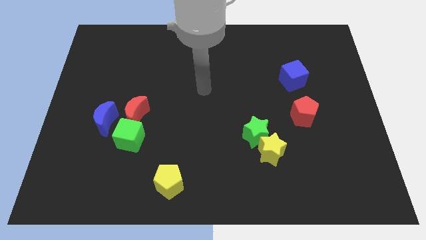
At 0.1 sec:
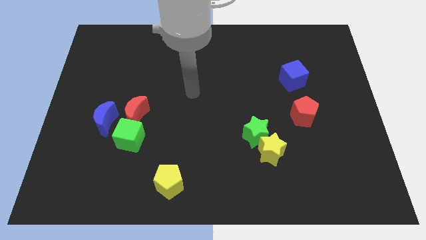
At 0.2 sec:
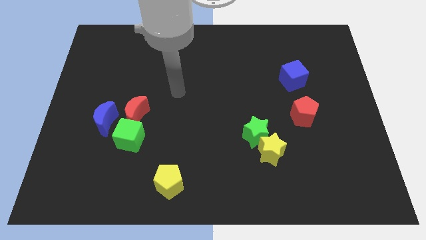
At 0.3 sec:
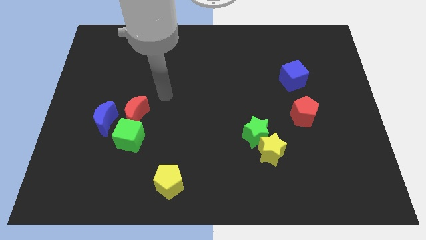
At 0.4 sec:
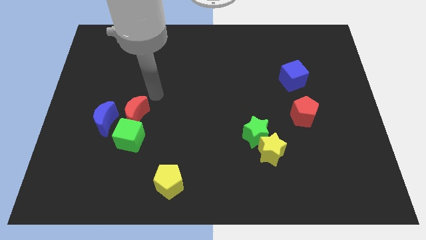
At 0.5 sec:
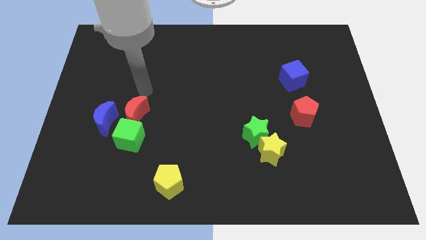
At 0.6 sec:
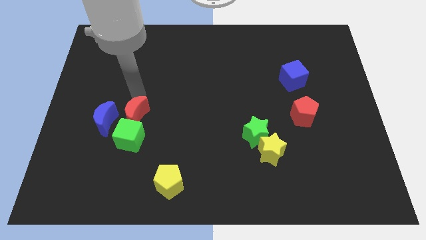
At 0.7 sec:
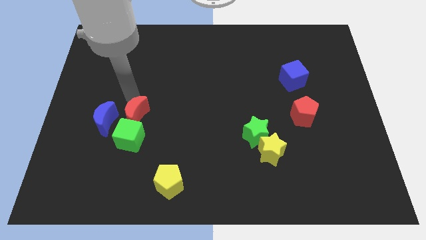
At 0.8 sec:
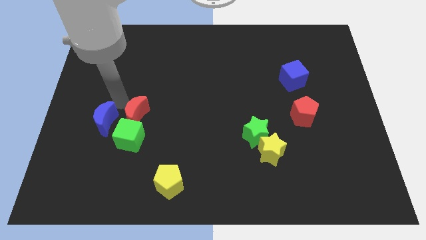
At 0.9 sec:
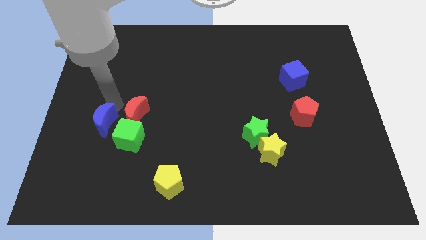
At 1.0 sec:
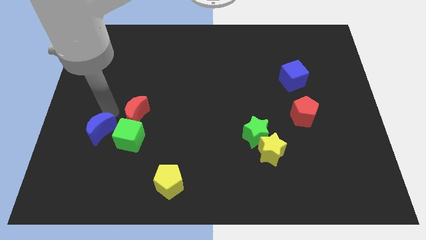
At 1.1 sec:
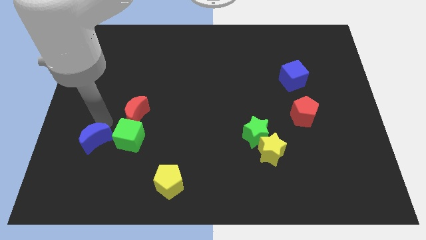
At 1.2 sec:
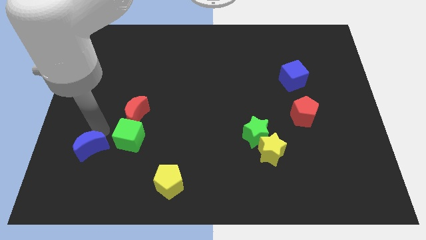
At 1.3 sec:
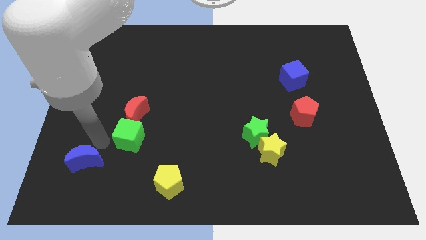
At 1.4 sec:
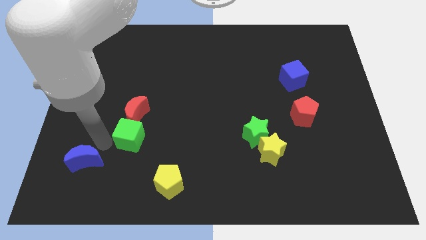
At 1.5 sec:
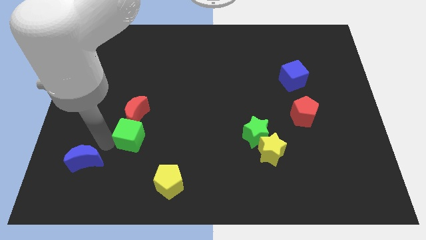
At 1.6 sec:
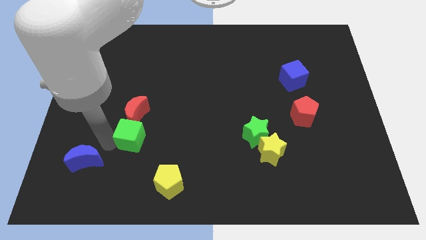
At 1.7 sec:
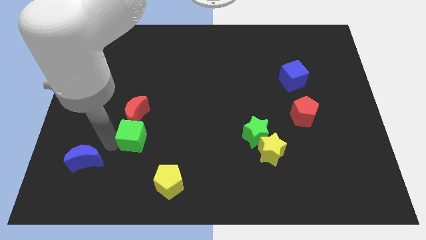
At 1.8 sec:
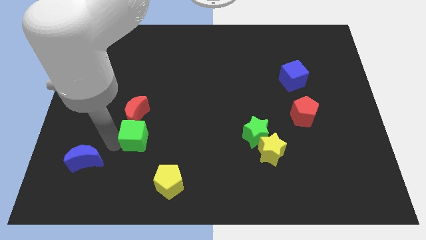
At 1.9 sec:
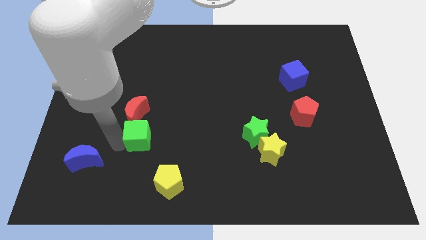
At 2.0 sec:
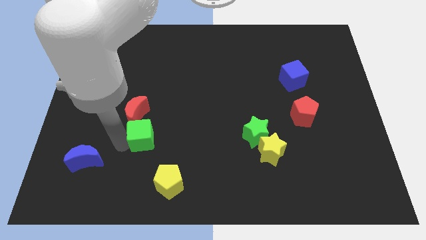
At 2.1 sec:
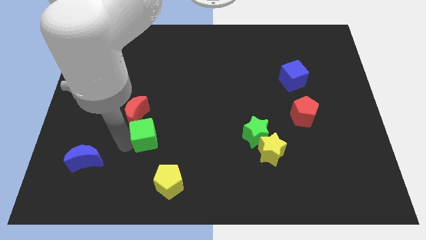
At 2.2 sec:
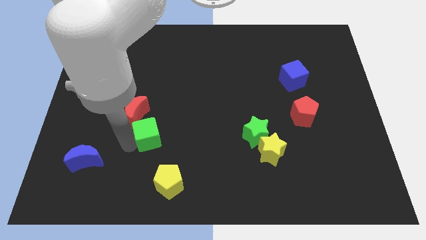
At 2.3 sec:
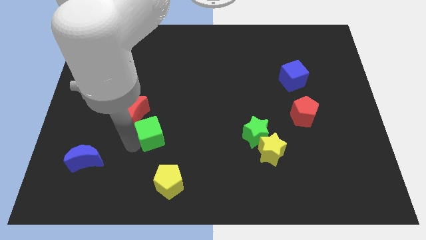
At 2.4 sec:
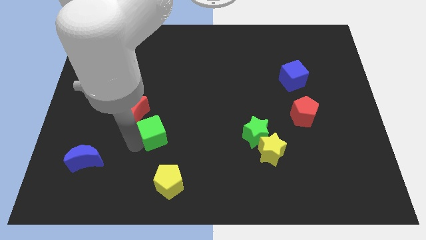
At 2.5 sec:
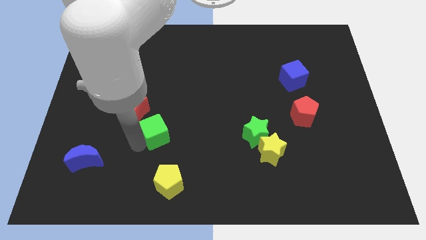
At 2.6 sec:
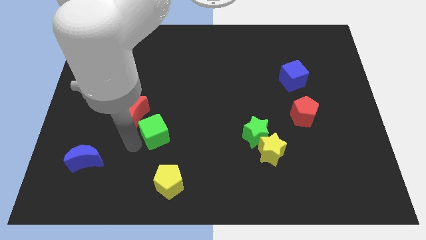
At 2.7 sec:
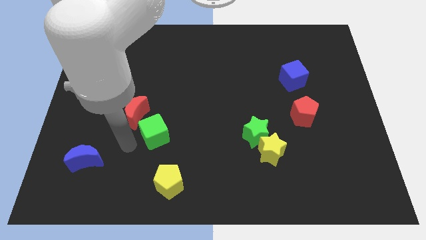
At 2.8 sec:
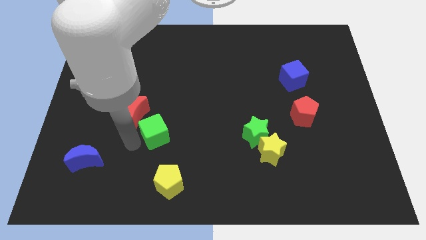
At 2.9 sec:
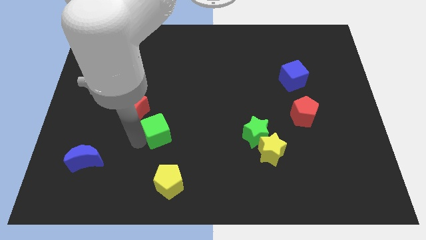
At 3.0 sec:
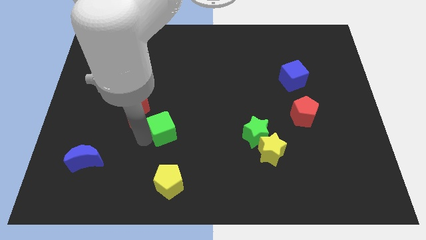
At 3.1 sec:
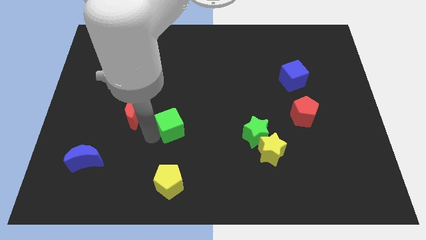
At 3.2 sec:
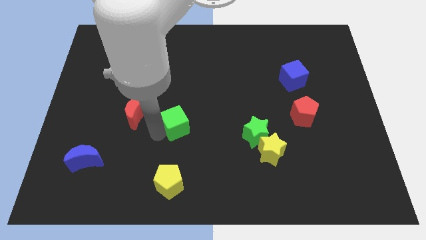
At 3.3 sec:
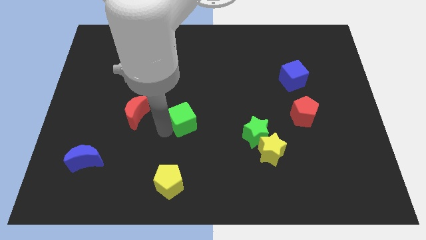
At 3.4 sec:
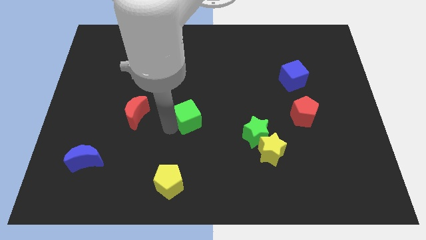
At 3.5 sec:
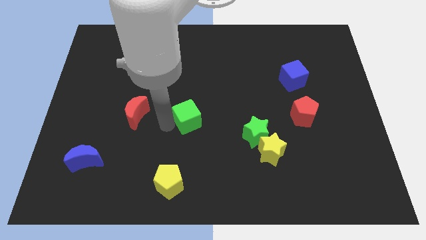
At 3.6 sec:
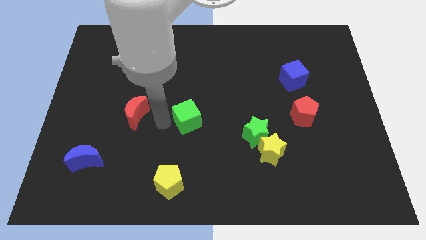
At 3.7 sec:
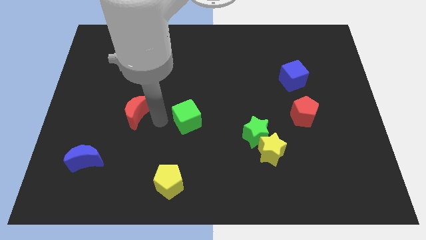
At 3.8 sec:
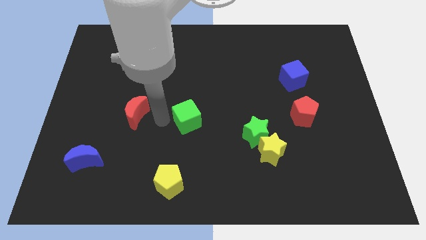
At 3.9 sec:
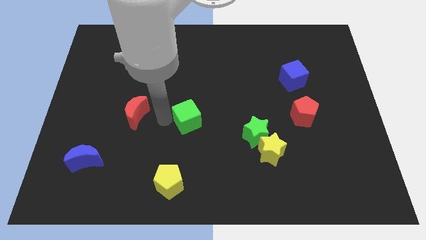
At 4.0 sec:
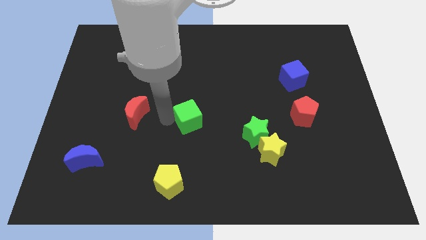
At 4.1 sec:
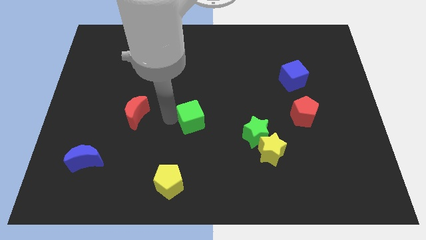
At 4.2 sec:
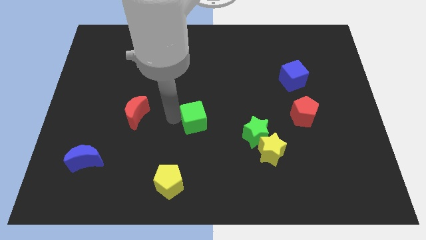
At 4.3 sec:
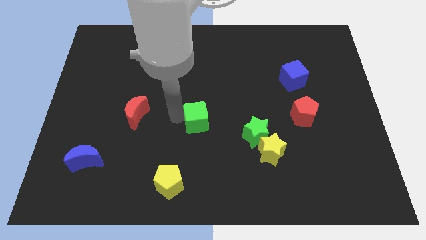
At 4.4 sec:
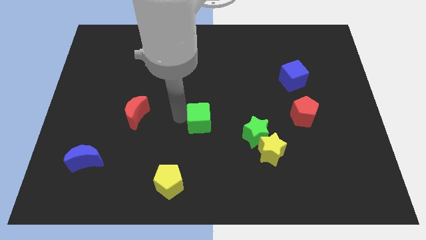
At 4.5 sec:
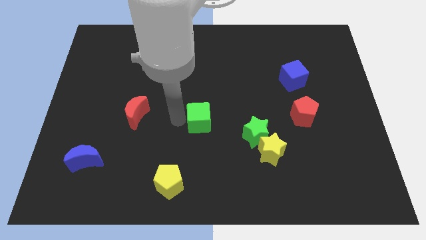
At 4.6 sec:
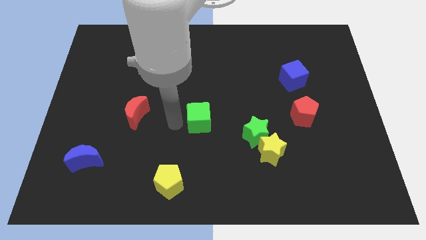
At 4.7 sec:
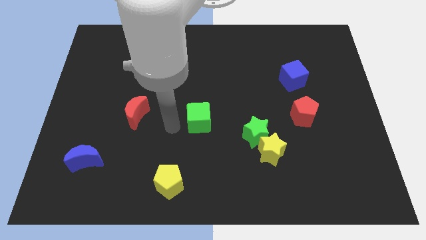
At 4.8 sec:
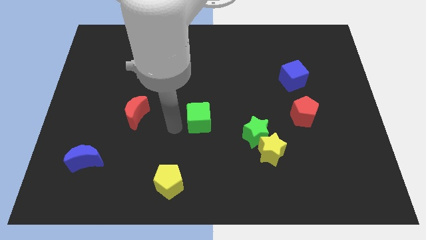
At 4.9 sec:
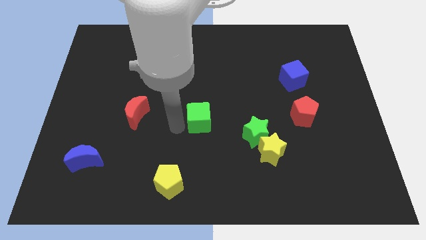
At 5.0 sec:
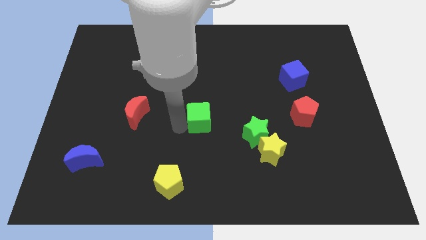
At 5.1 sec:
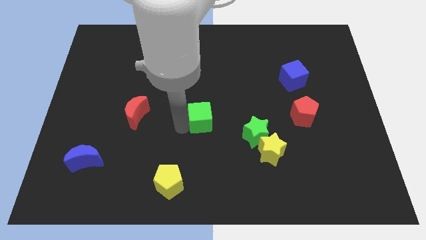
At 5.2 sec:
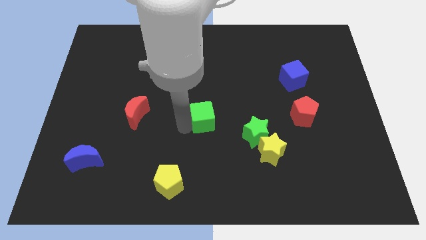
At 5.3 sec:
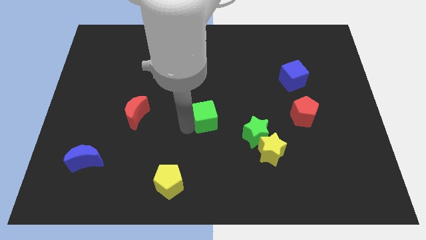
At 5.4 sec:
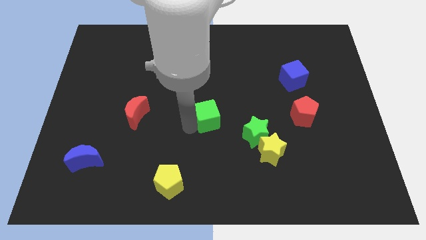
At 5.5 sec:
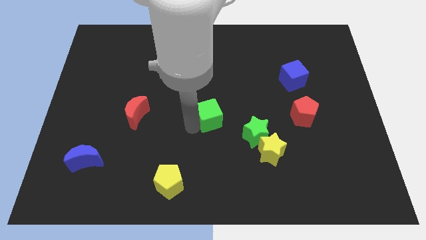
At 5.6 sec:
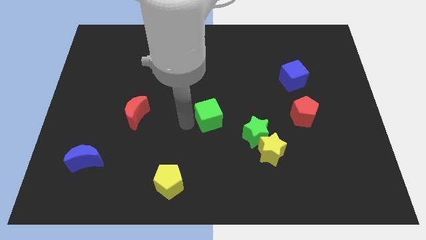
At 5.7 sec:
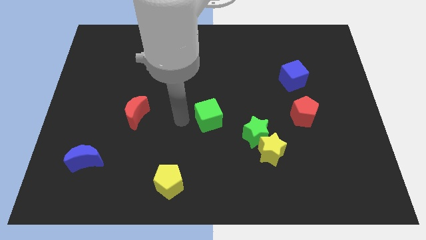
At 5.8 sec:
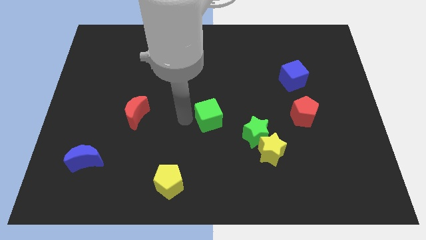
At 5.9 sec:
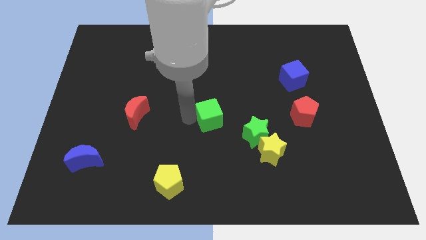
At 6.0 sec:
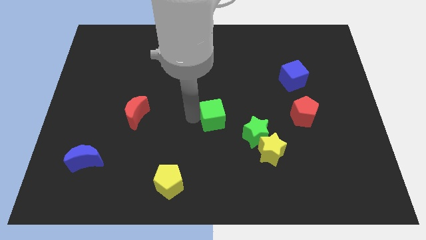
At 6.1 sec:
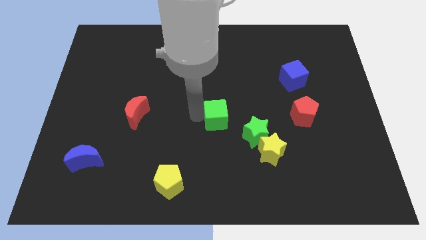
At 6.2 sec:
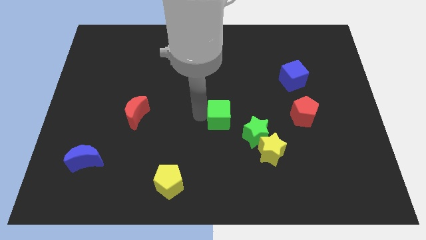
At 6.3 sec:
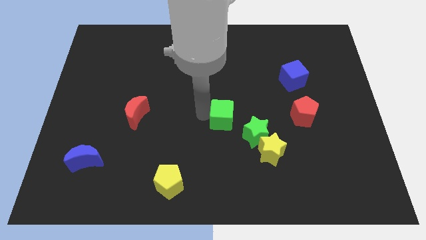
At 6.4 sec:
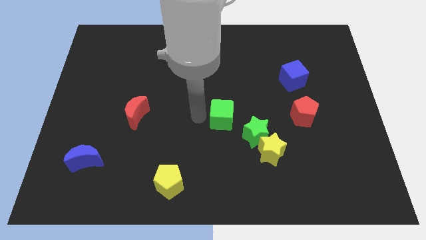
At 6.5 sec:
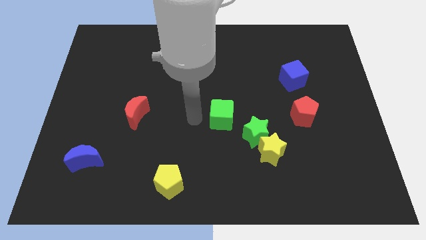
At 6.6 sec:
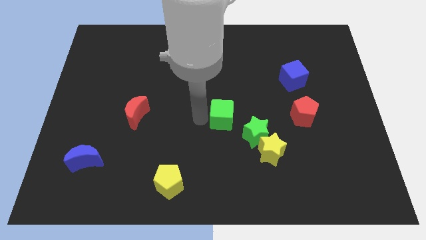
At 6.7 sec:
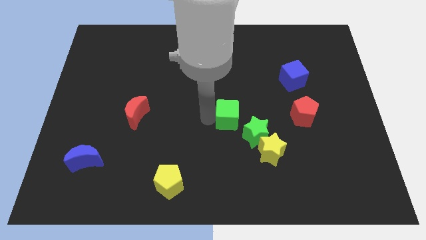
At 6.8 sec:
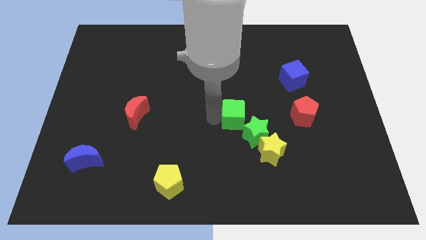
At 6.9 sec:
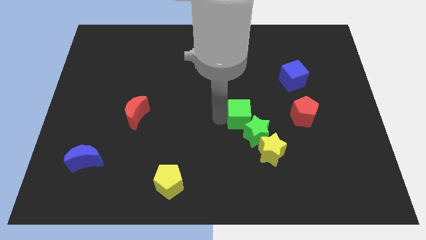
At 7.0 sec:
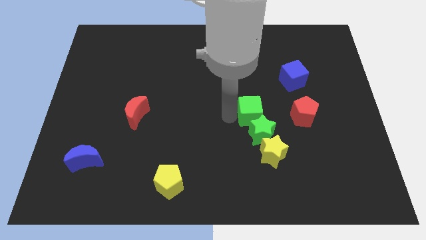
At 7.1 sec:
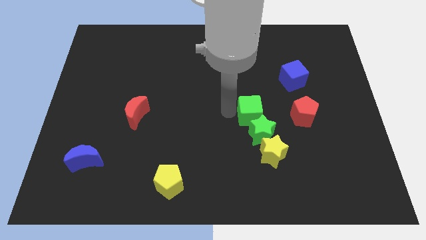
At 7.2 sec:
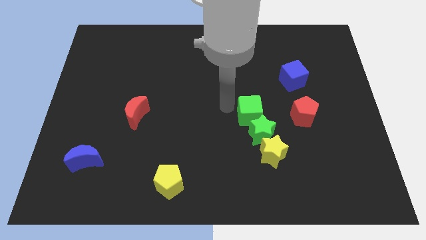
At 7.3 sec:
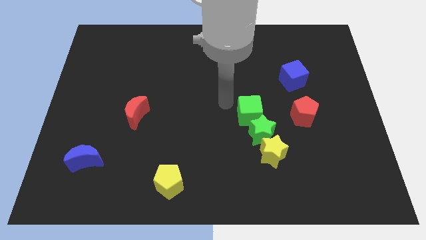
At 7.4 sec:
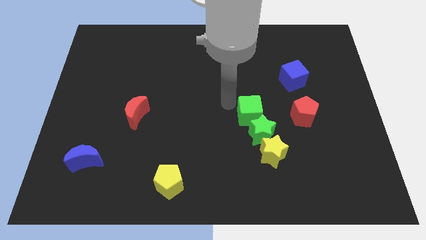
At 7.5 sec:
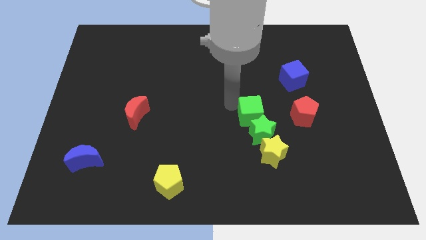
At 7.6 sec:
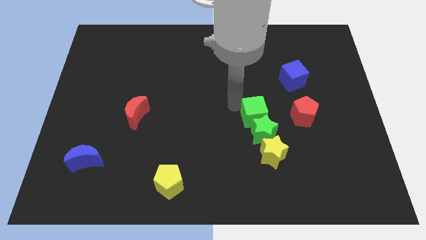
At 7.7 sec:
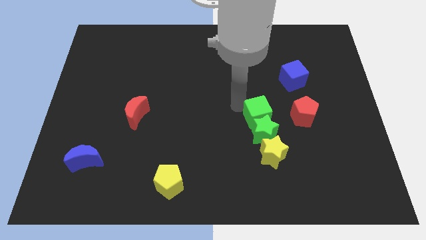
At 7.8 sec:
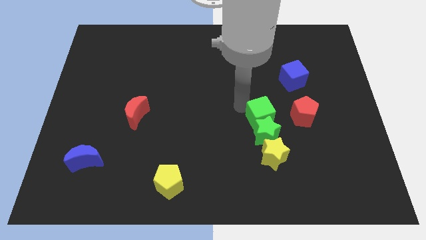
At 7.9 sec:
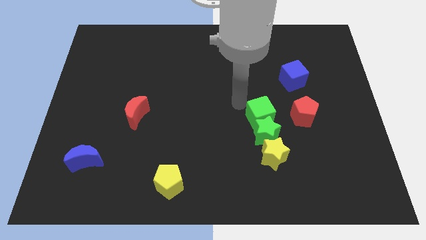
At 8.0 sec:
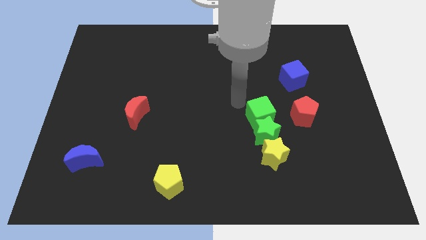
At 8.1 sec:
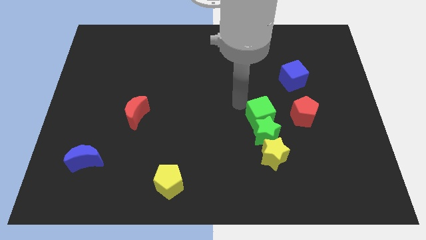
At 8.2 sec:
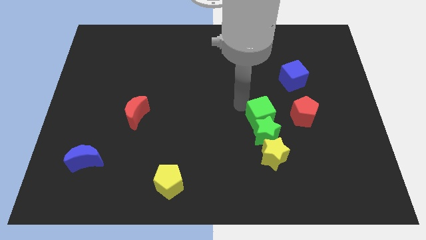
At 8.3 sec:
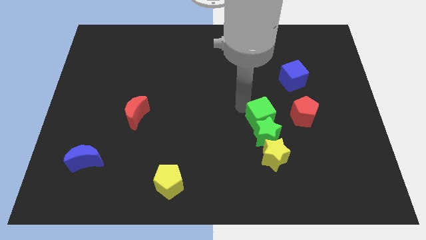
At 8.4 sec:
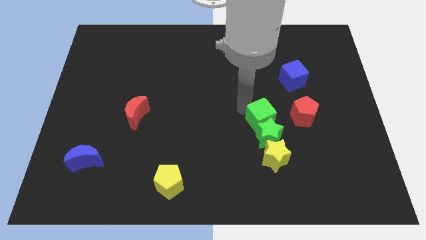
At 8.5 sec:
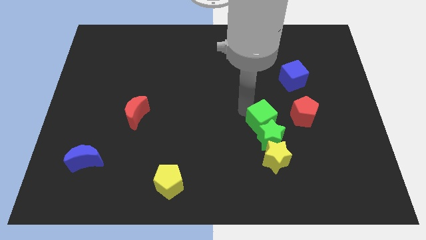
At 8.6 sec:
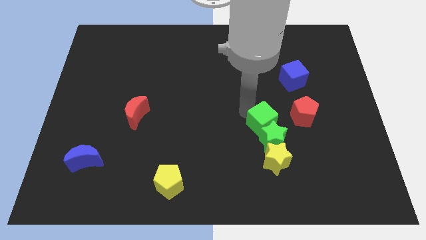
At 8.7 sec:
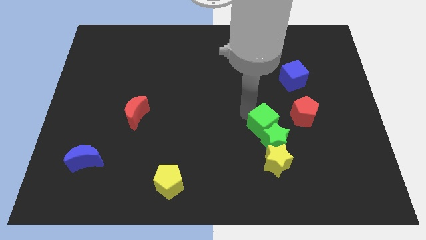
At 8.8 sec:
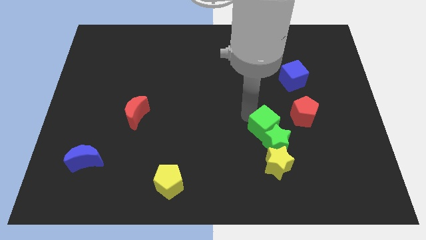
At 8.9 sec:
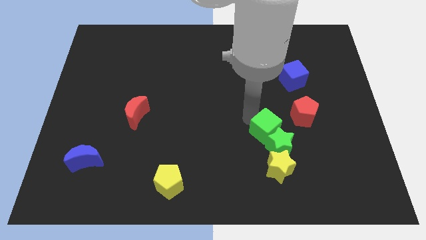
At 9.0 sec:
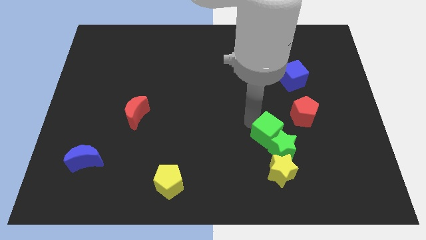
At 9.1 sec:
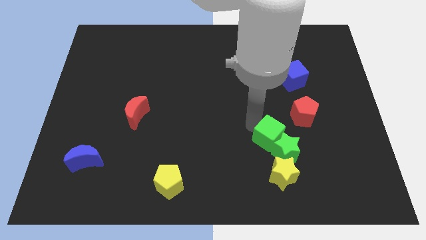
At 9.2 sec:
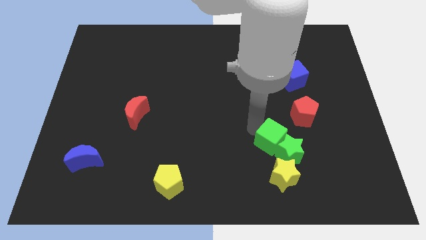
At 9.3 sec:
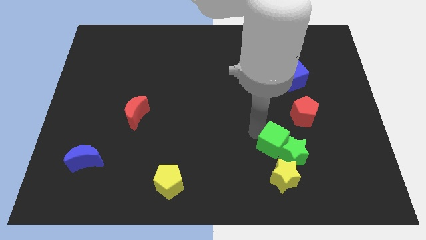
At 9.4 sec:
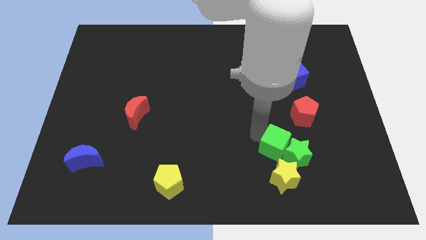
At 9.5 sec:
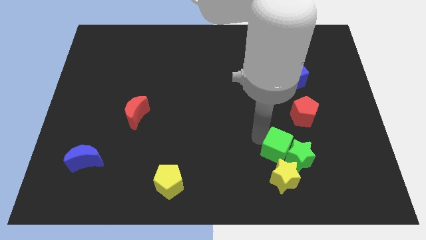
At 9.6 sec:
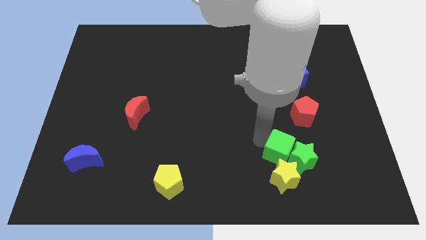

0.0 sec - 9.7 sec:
put the green cube diagonally up and to the right of the yellow star
